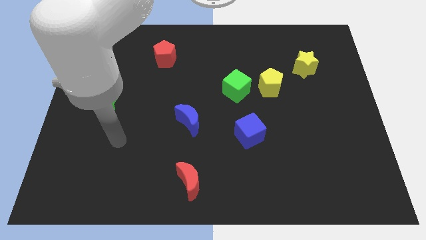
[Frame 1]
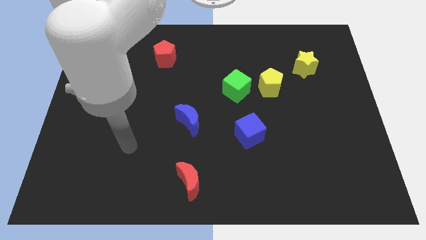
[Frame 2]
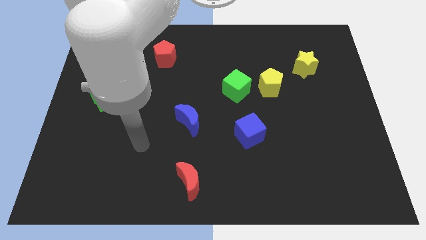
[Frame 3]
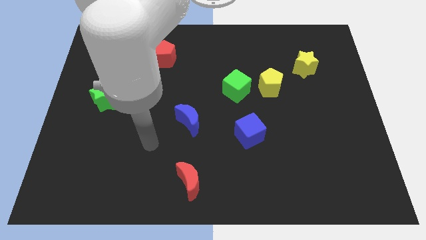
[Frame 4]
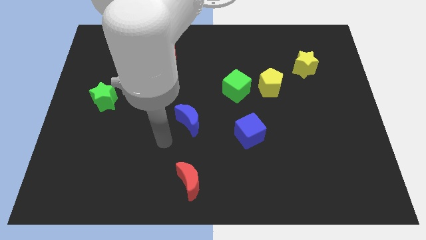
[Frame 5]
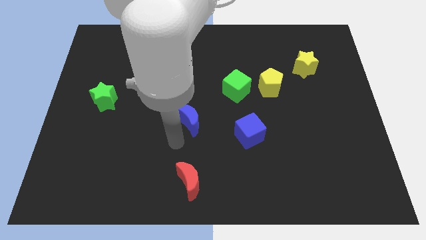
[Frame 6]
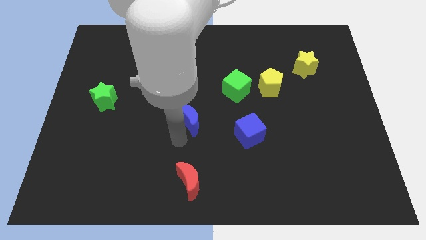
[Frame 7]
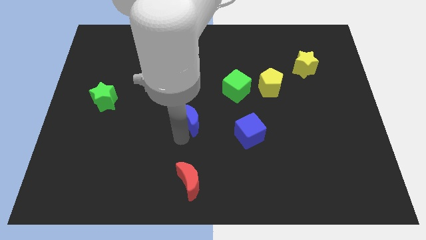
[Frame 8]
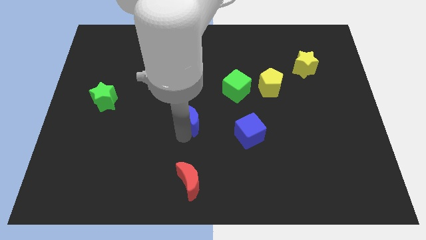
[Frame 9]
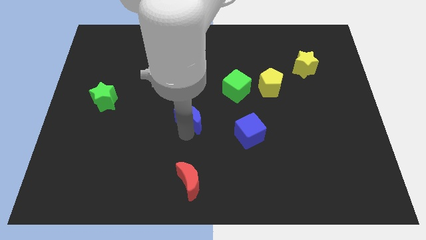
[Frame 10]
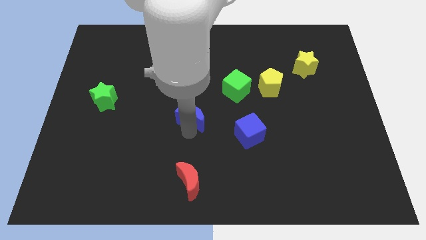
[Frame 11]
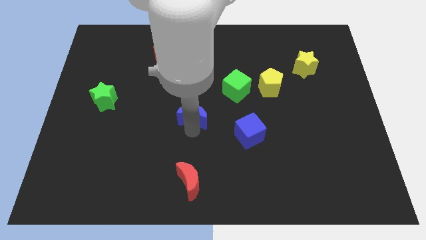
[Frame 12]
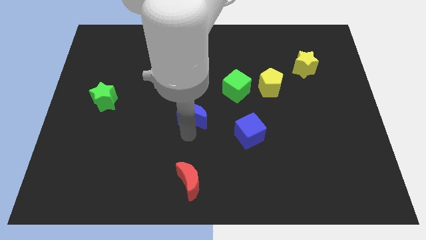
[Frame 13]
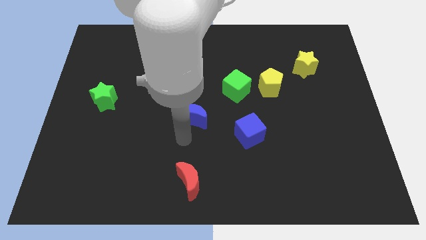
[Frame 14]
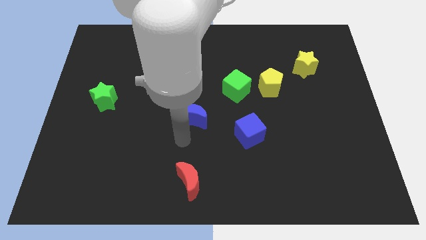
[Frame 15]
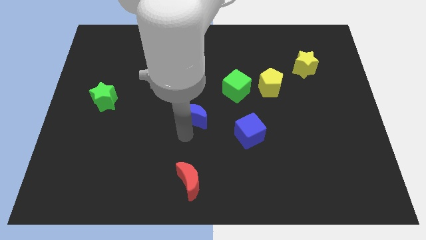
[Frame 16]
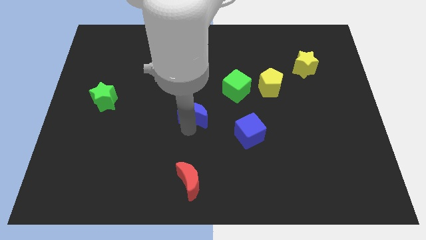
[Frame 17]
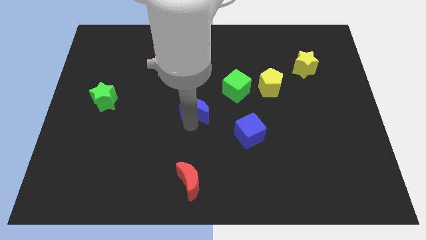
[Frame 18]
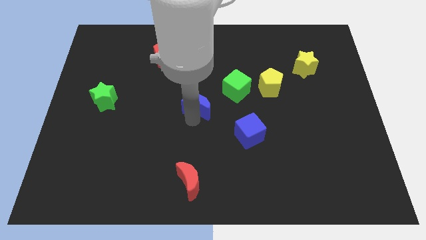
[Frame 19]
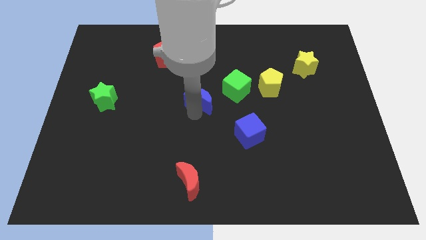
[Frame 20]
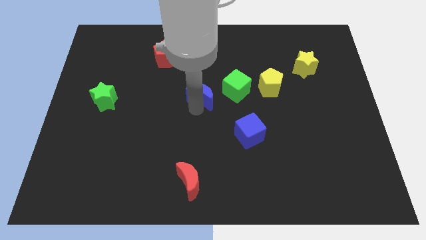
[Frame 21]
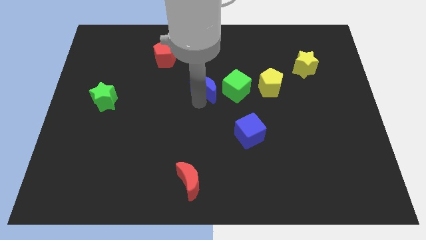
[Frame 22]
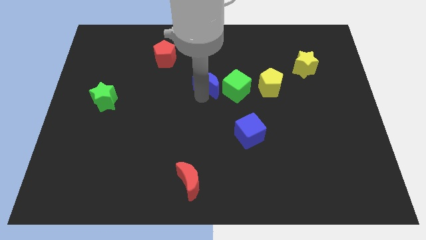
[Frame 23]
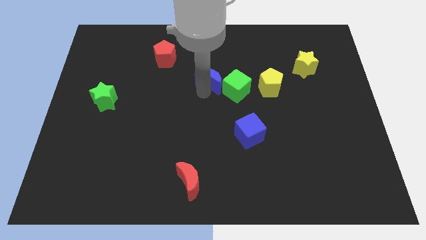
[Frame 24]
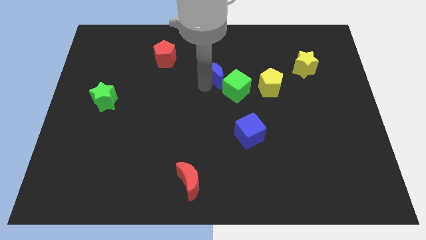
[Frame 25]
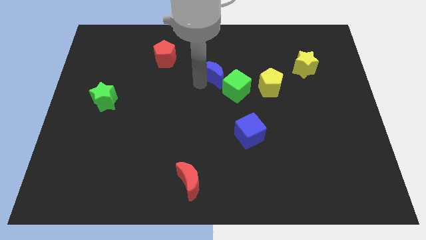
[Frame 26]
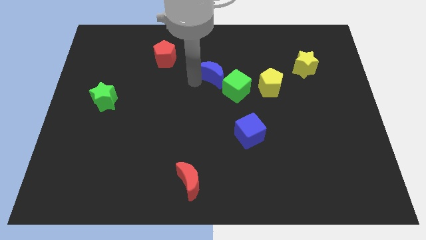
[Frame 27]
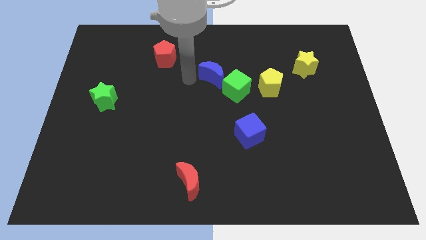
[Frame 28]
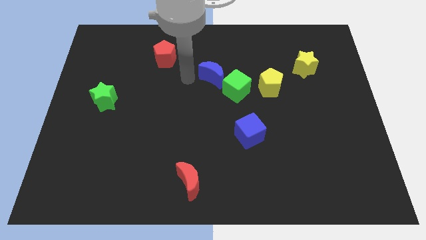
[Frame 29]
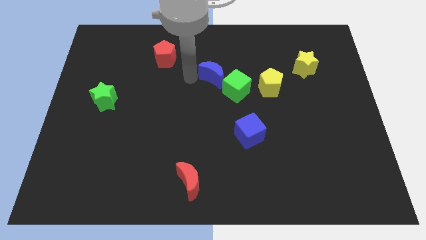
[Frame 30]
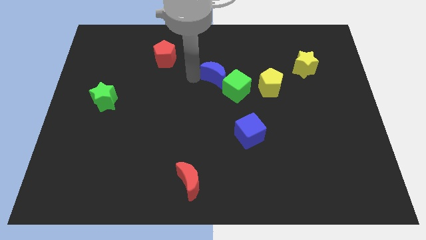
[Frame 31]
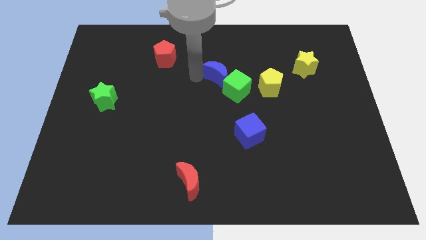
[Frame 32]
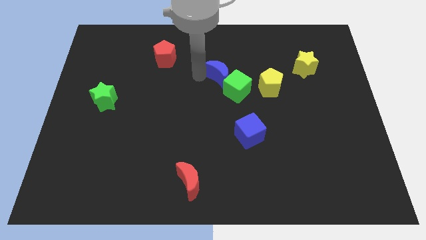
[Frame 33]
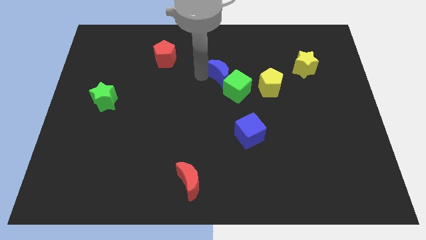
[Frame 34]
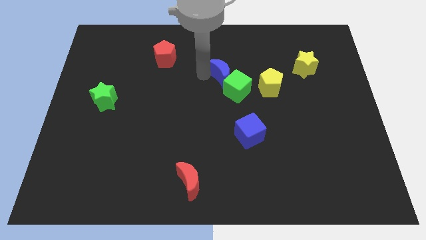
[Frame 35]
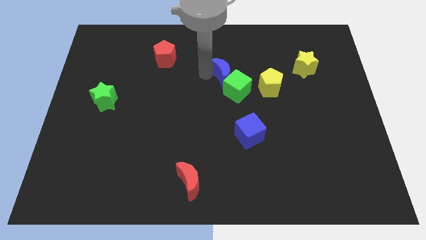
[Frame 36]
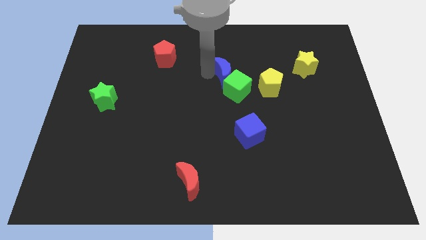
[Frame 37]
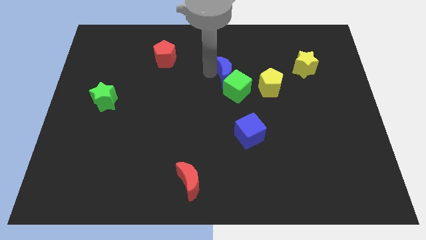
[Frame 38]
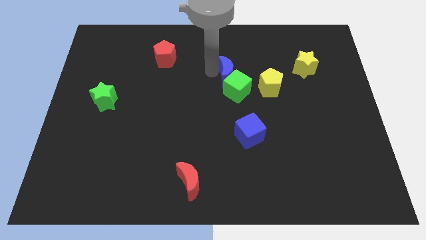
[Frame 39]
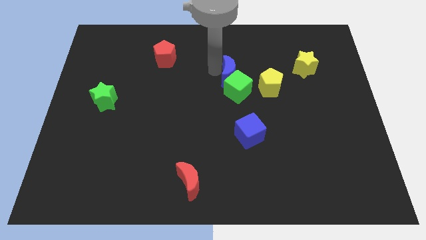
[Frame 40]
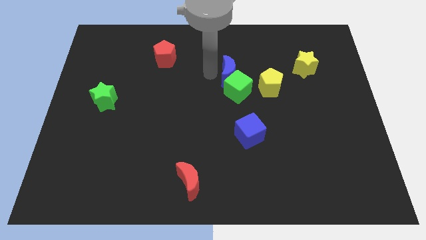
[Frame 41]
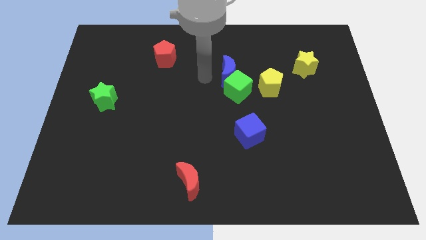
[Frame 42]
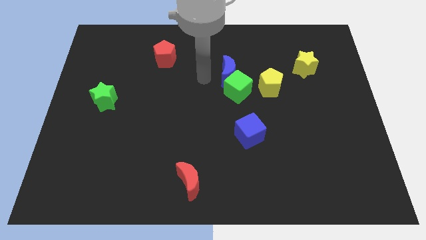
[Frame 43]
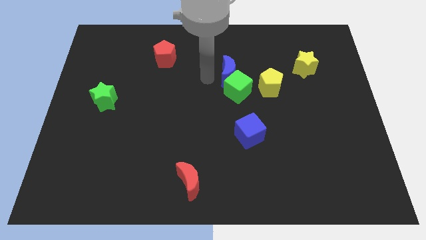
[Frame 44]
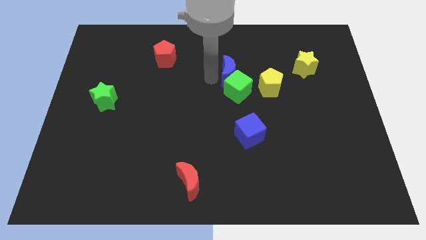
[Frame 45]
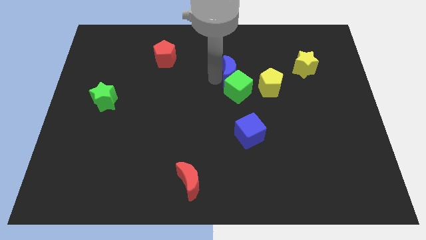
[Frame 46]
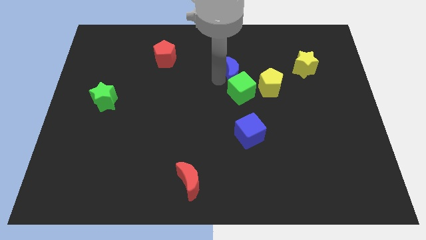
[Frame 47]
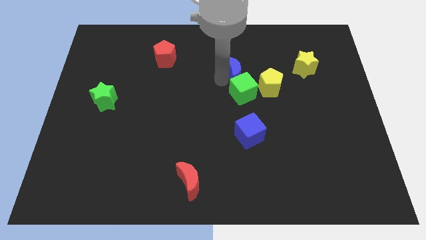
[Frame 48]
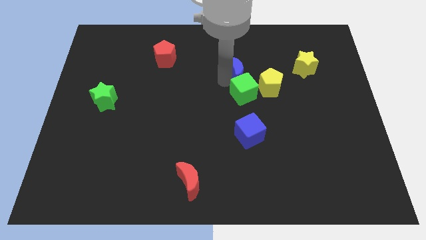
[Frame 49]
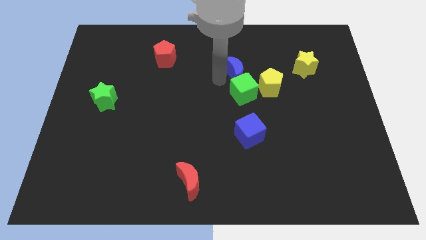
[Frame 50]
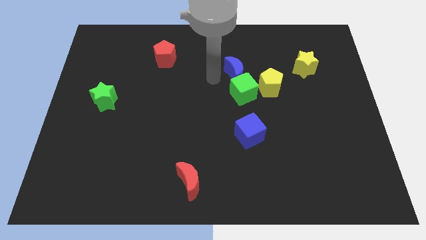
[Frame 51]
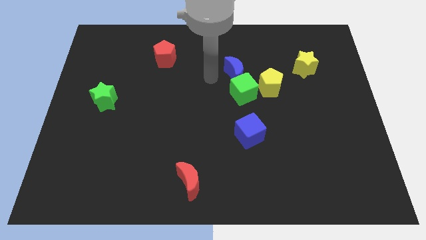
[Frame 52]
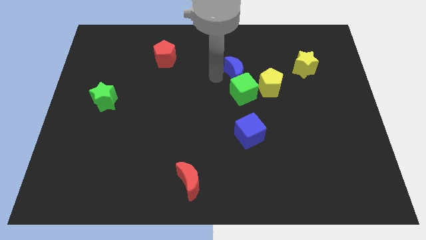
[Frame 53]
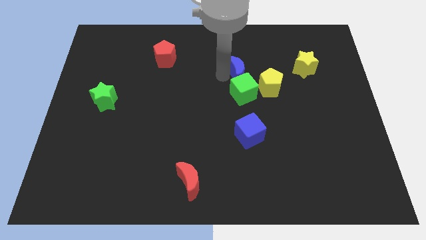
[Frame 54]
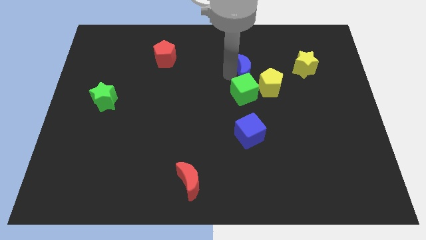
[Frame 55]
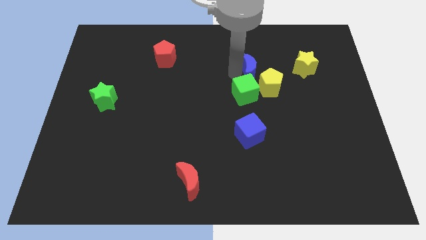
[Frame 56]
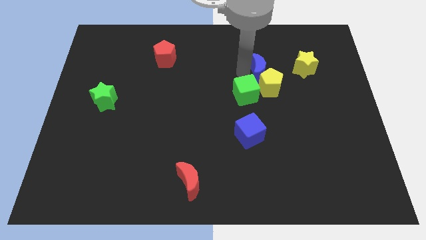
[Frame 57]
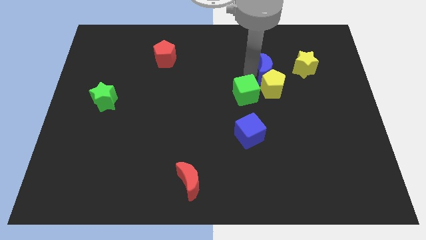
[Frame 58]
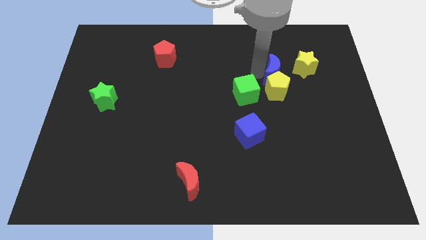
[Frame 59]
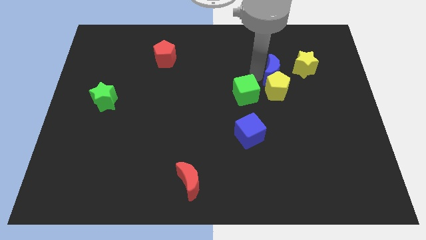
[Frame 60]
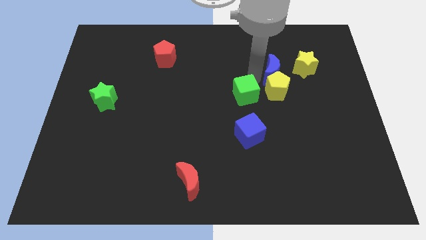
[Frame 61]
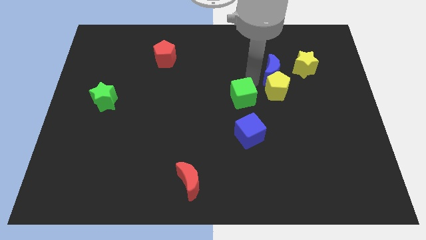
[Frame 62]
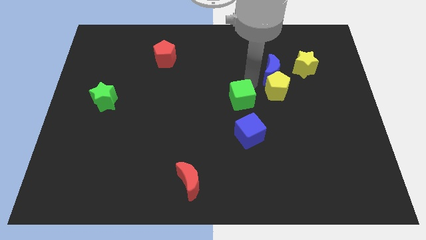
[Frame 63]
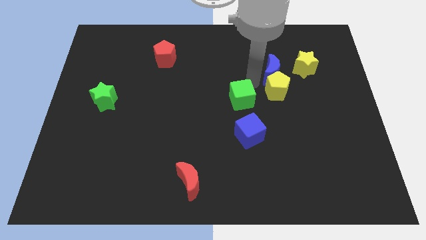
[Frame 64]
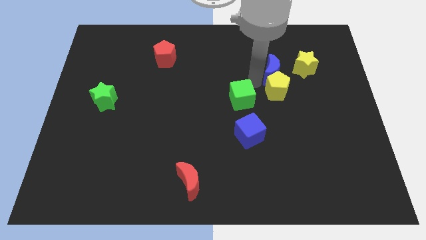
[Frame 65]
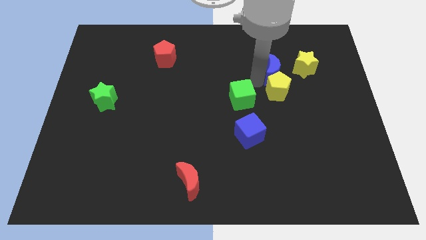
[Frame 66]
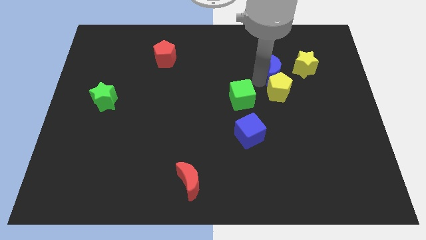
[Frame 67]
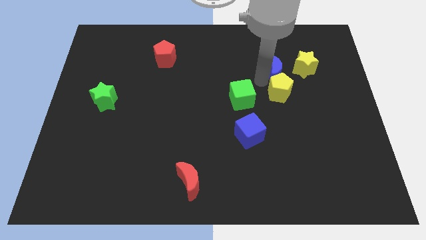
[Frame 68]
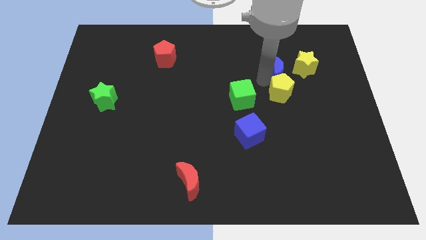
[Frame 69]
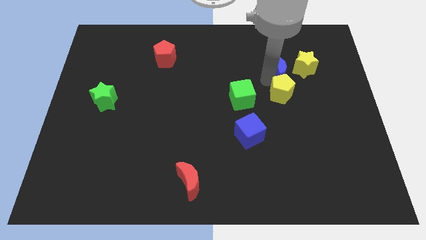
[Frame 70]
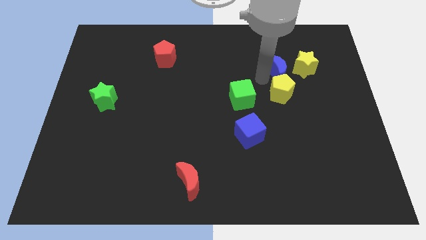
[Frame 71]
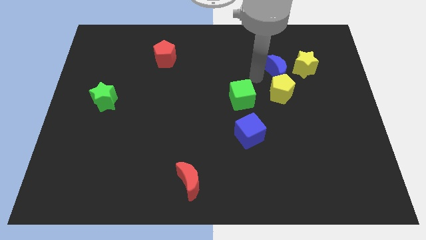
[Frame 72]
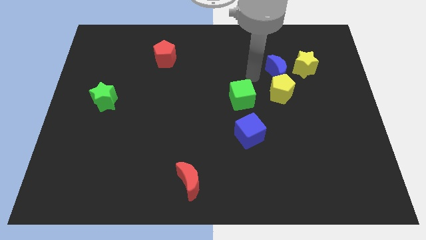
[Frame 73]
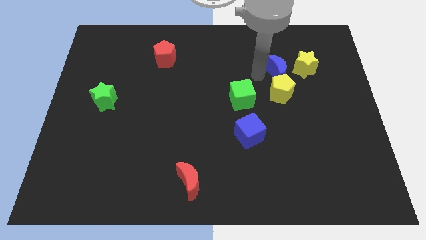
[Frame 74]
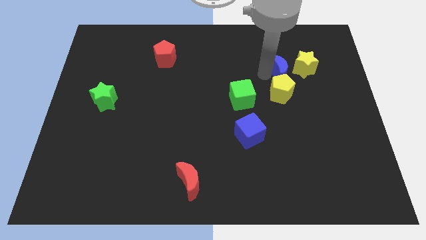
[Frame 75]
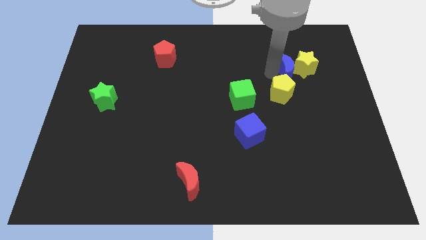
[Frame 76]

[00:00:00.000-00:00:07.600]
push the blue moon to the yellow star
